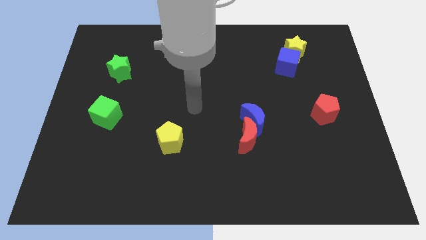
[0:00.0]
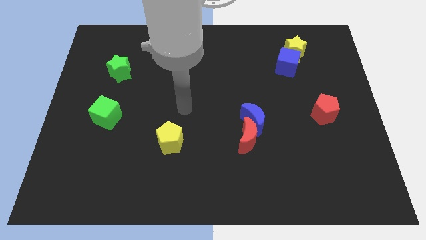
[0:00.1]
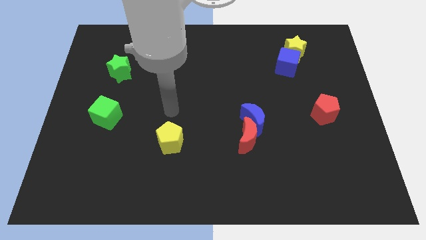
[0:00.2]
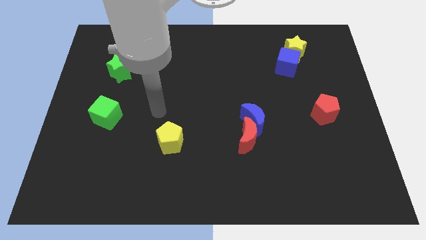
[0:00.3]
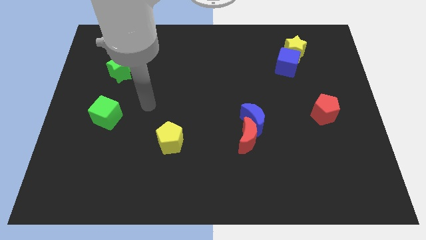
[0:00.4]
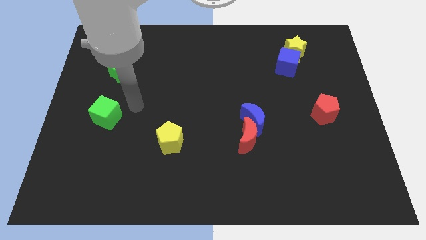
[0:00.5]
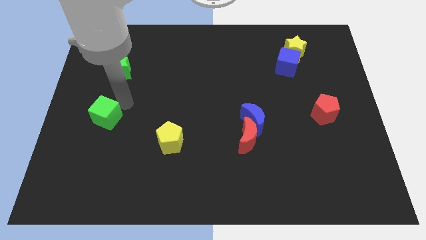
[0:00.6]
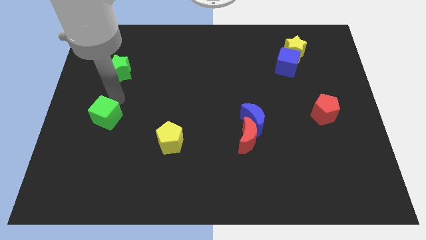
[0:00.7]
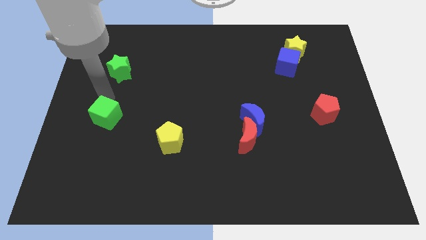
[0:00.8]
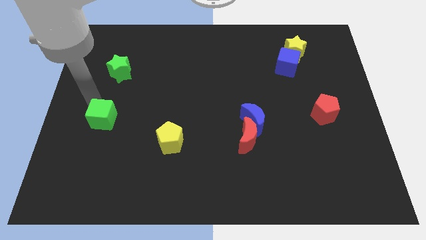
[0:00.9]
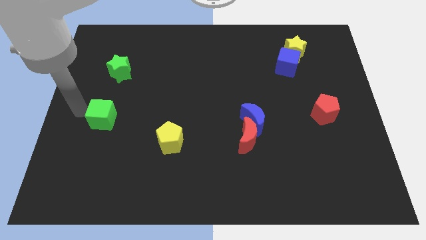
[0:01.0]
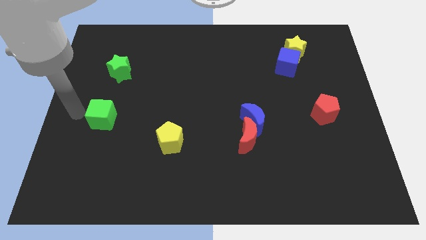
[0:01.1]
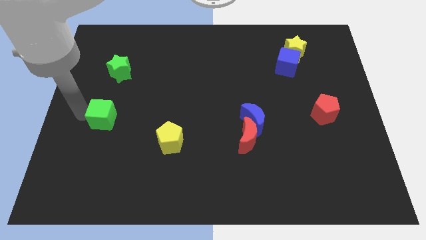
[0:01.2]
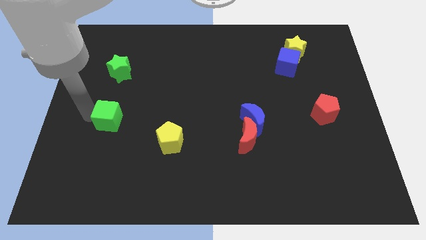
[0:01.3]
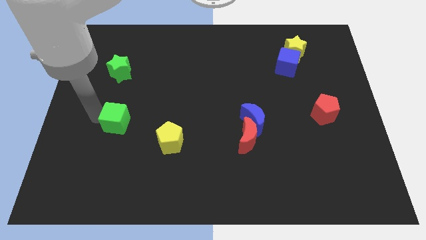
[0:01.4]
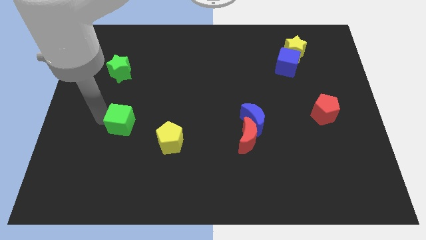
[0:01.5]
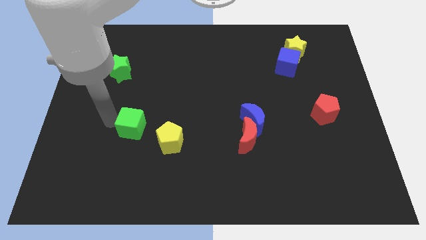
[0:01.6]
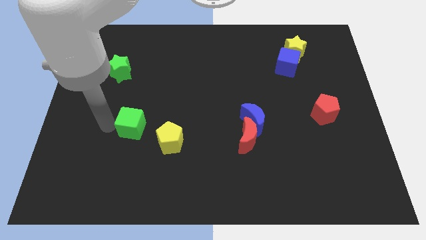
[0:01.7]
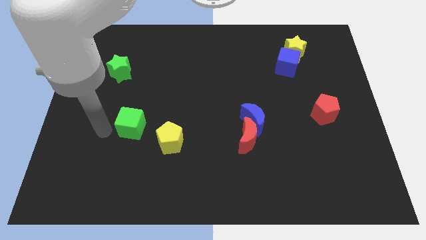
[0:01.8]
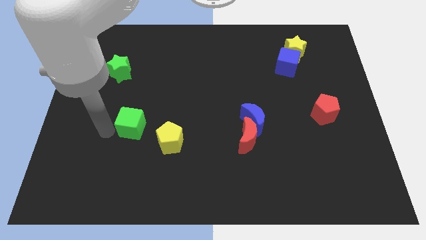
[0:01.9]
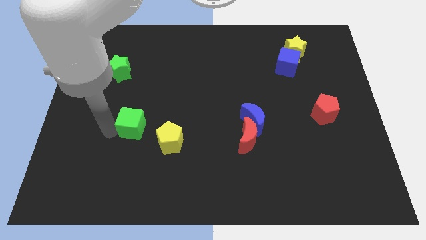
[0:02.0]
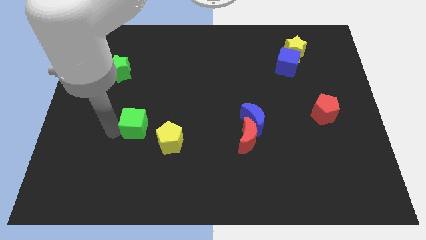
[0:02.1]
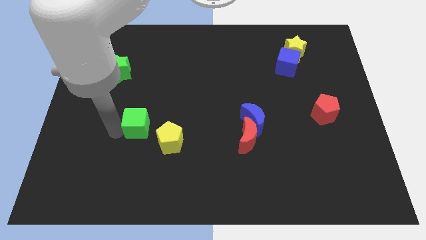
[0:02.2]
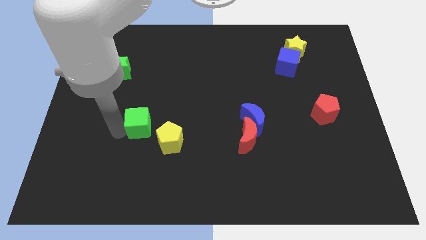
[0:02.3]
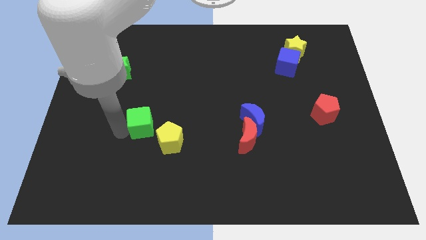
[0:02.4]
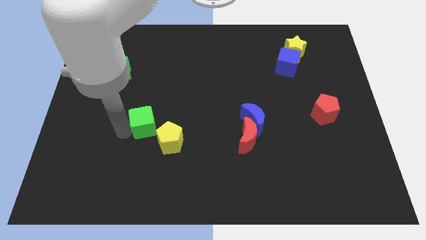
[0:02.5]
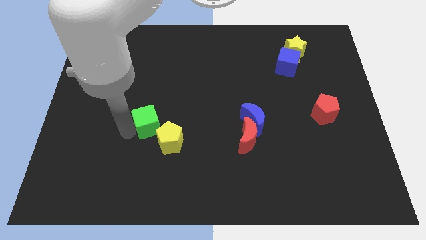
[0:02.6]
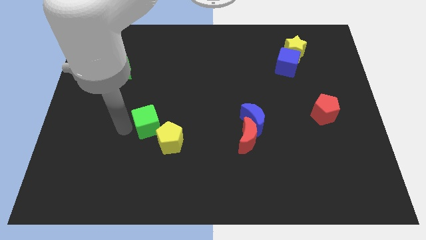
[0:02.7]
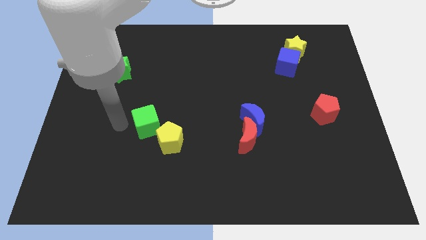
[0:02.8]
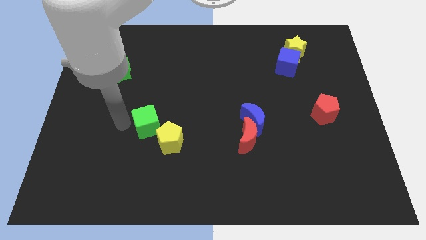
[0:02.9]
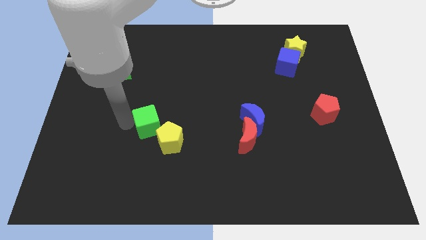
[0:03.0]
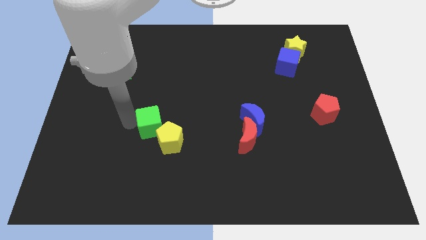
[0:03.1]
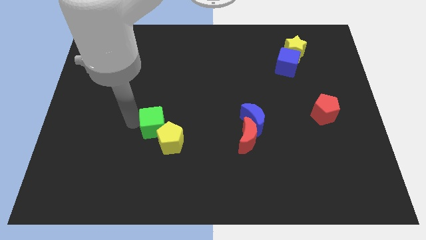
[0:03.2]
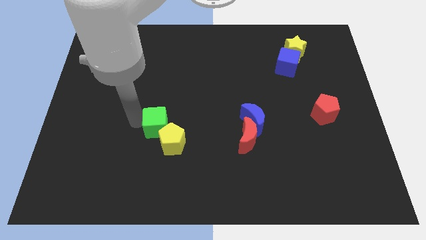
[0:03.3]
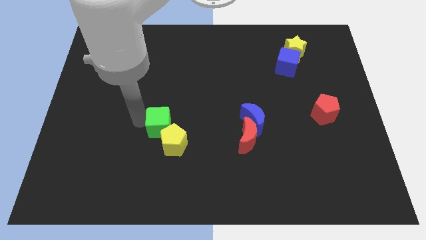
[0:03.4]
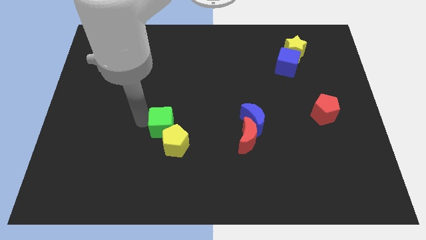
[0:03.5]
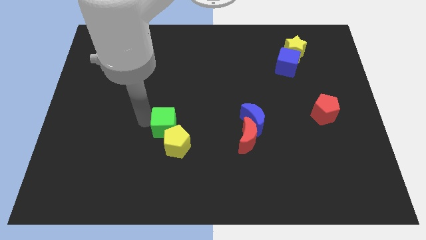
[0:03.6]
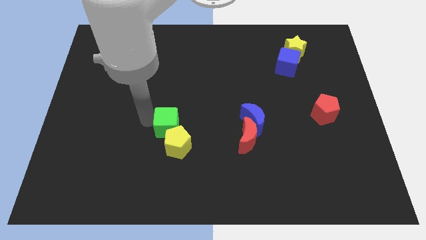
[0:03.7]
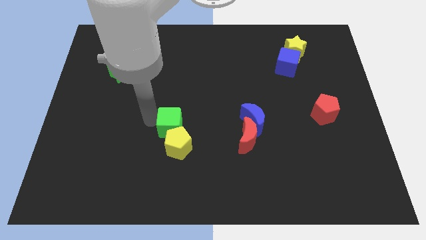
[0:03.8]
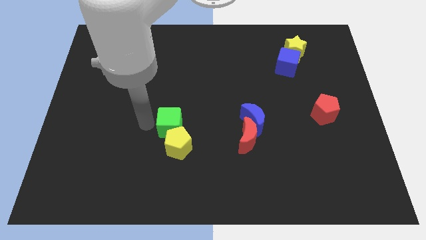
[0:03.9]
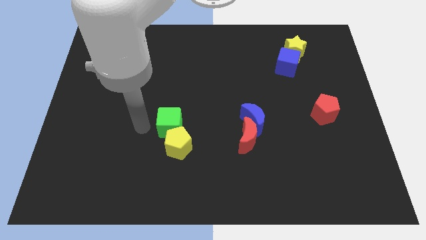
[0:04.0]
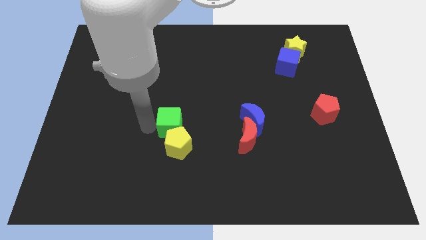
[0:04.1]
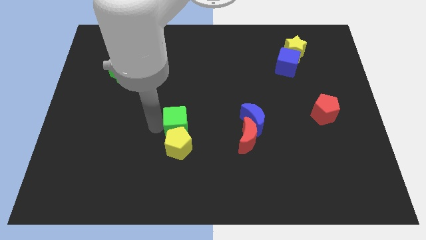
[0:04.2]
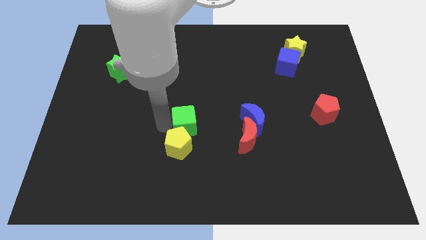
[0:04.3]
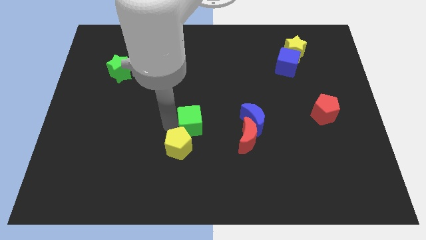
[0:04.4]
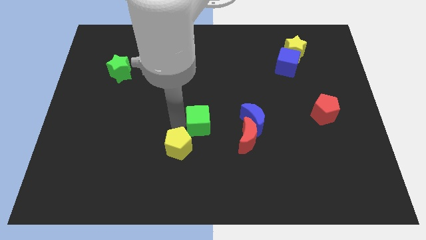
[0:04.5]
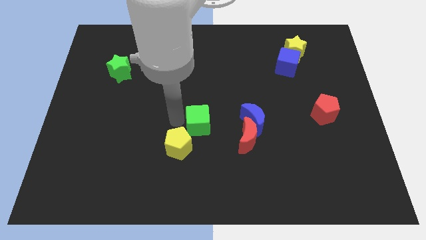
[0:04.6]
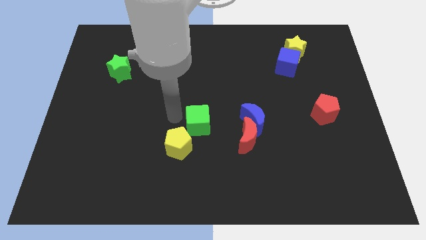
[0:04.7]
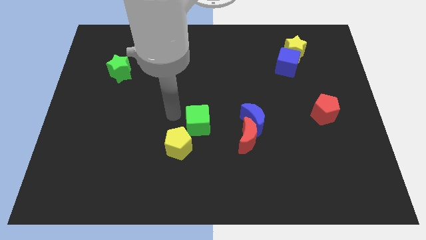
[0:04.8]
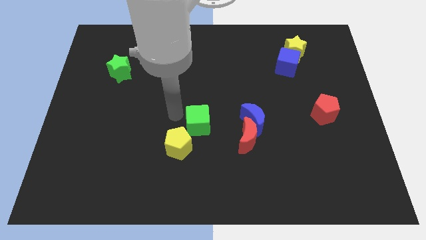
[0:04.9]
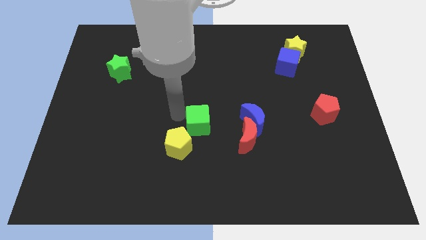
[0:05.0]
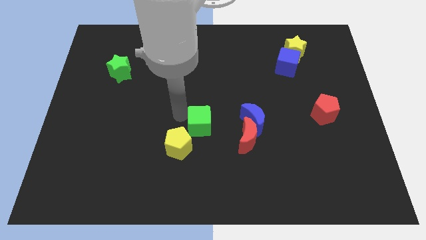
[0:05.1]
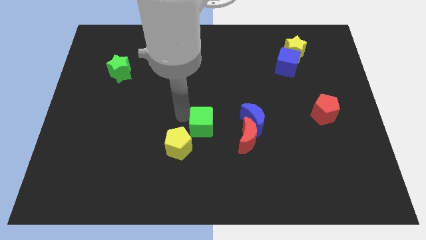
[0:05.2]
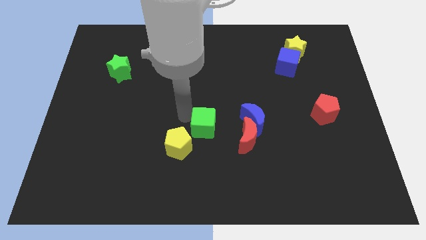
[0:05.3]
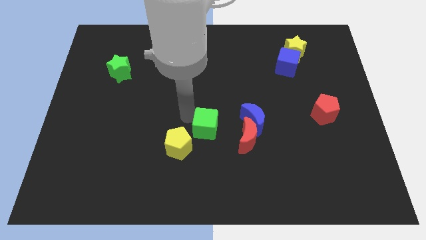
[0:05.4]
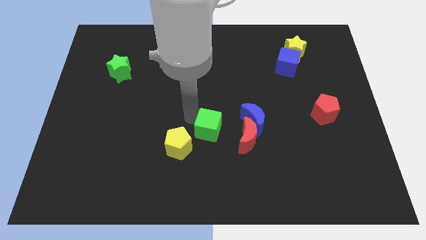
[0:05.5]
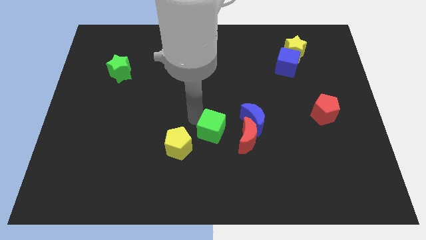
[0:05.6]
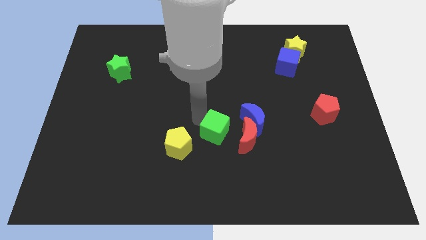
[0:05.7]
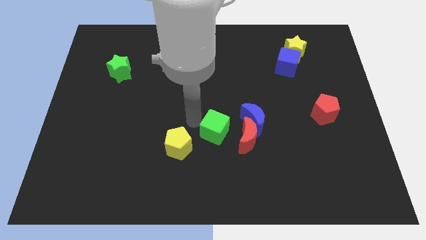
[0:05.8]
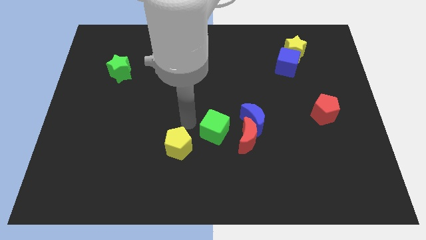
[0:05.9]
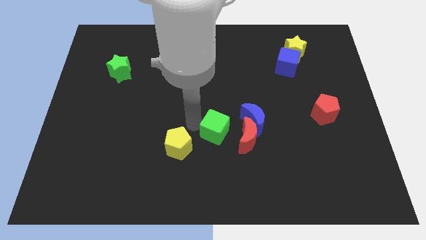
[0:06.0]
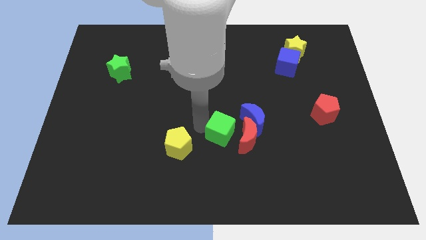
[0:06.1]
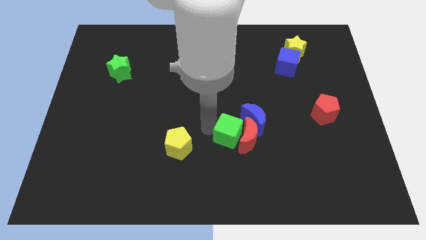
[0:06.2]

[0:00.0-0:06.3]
slide the green cube close to the red moon
